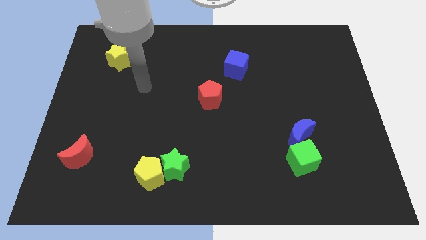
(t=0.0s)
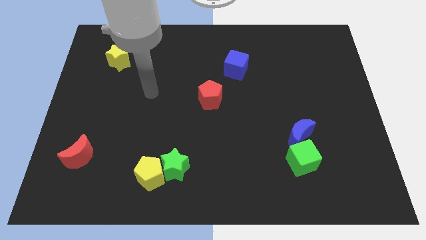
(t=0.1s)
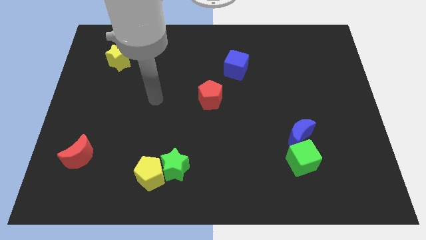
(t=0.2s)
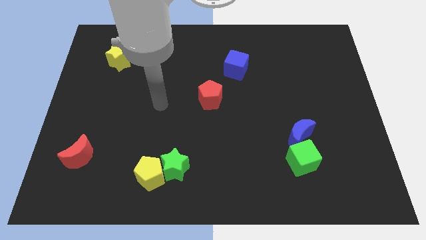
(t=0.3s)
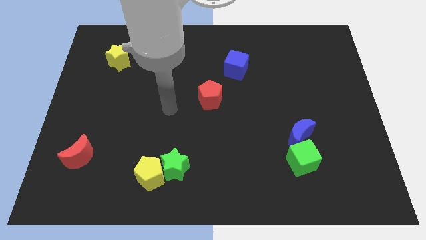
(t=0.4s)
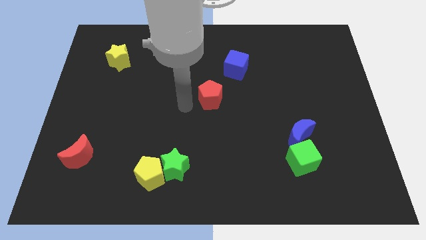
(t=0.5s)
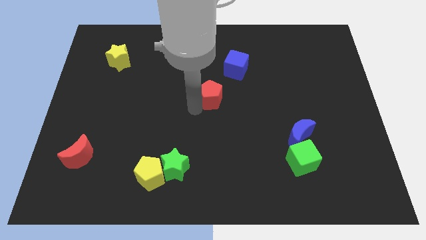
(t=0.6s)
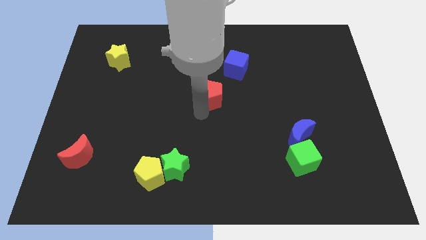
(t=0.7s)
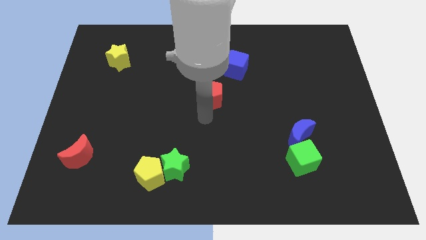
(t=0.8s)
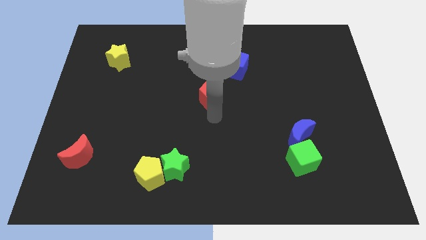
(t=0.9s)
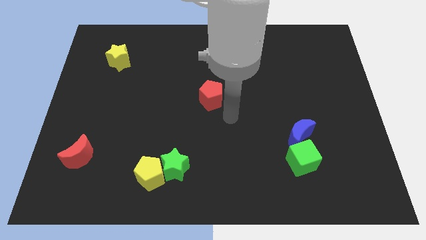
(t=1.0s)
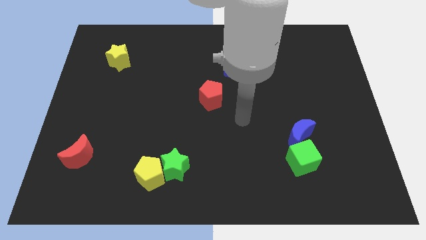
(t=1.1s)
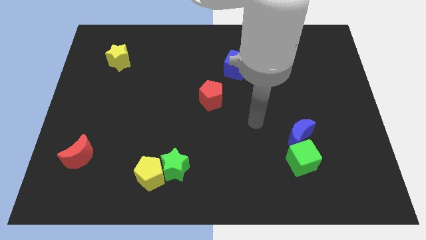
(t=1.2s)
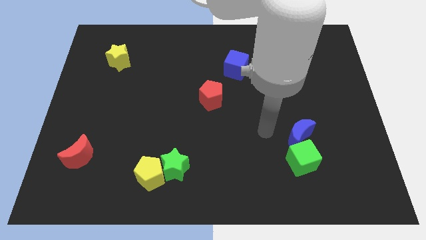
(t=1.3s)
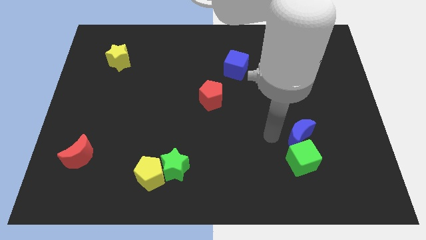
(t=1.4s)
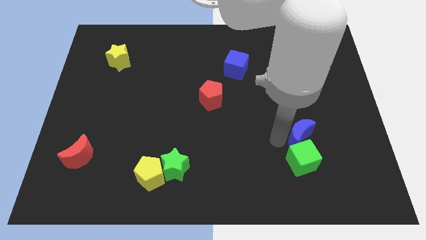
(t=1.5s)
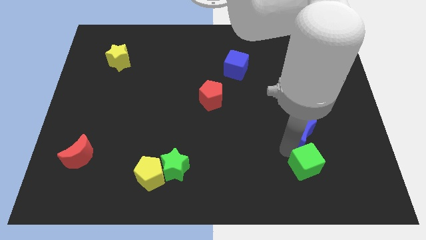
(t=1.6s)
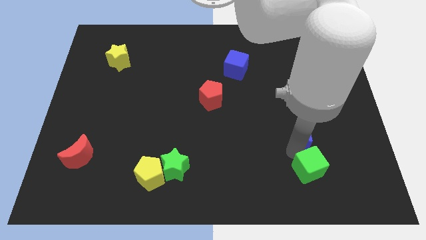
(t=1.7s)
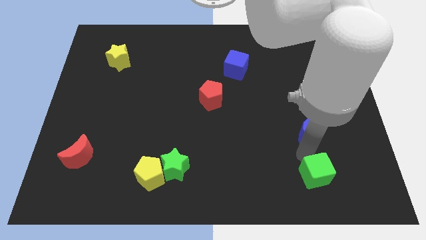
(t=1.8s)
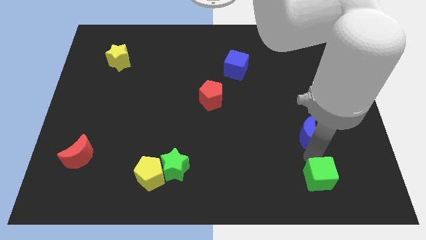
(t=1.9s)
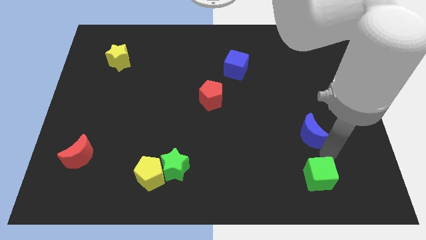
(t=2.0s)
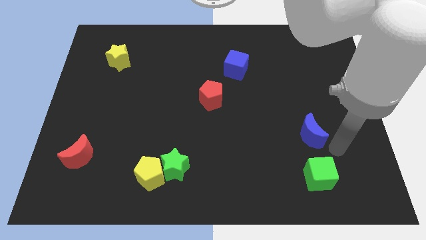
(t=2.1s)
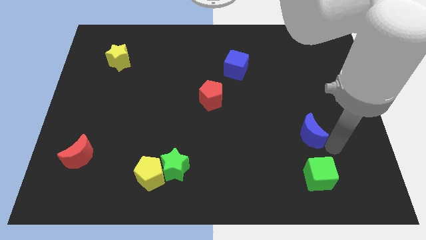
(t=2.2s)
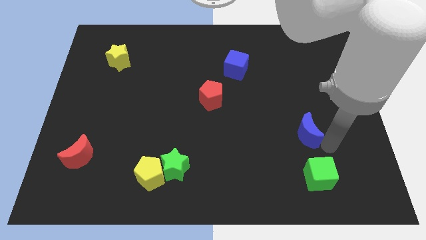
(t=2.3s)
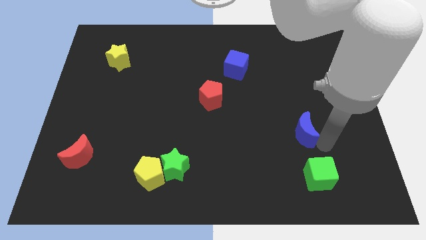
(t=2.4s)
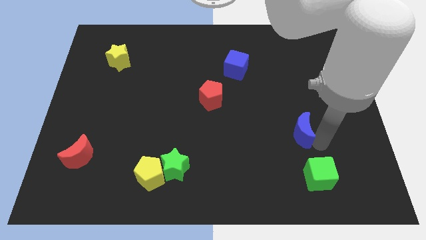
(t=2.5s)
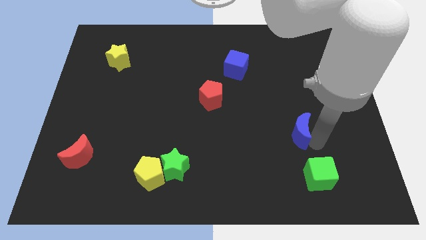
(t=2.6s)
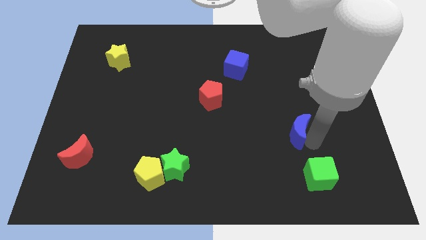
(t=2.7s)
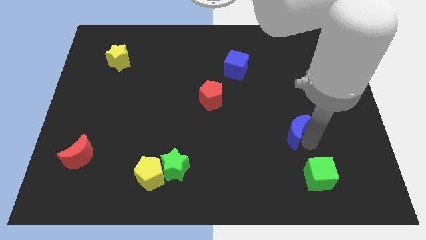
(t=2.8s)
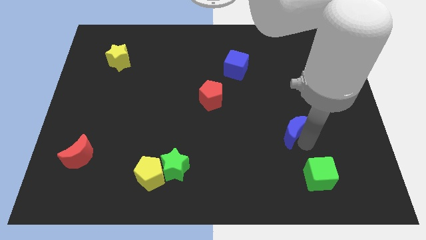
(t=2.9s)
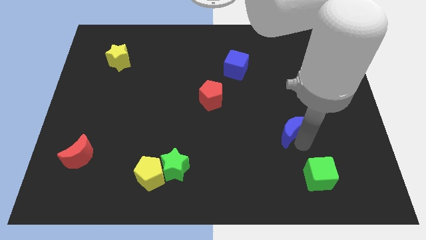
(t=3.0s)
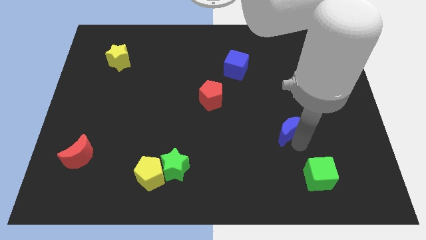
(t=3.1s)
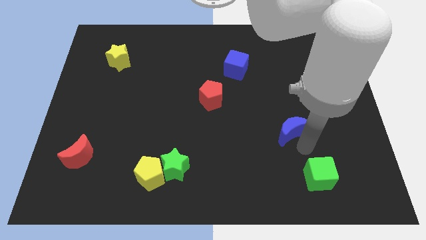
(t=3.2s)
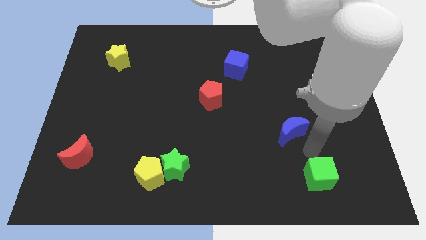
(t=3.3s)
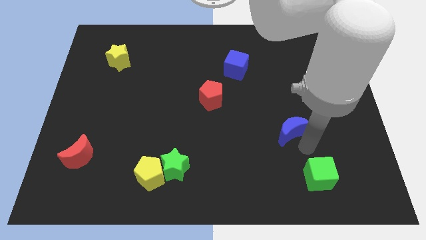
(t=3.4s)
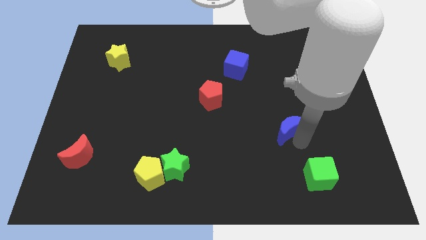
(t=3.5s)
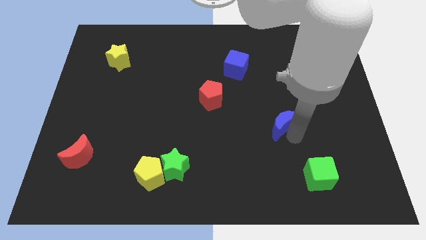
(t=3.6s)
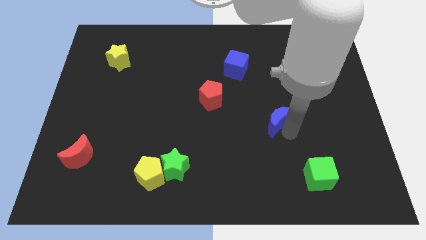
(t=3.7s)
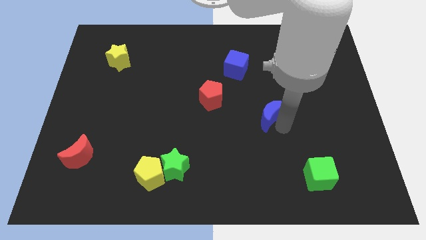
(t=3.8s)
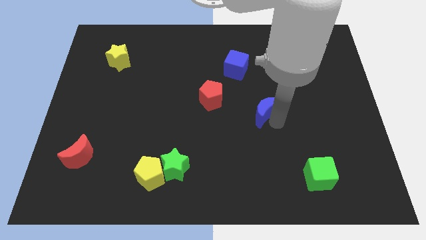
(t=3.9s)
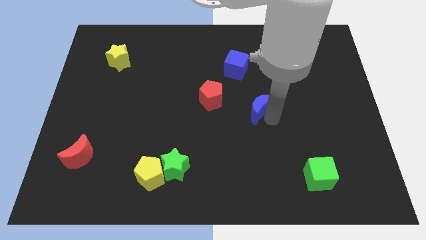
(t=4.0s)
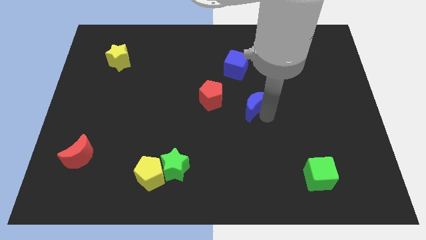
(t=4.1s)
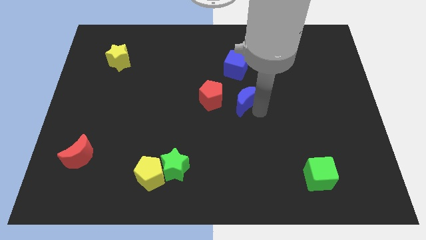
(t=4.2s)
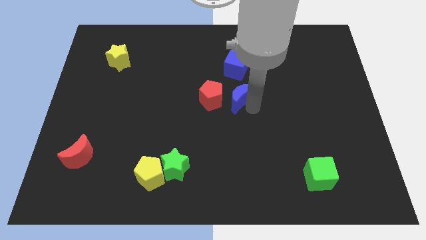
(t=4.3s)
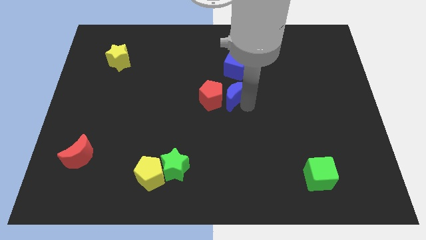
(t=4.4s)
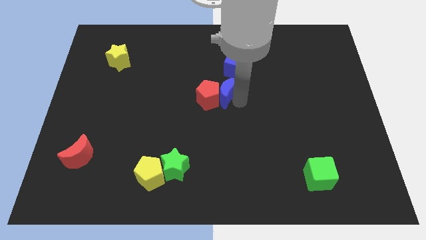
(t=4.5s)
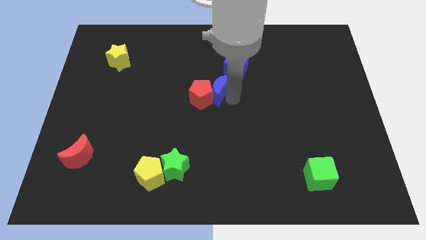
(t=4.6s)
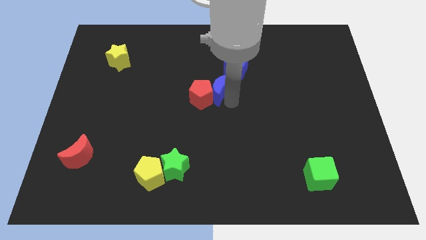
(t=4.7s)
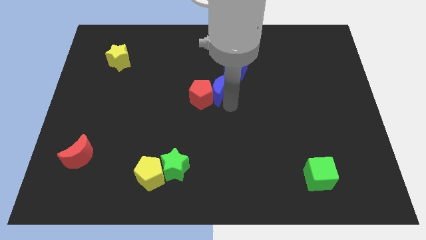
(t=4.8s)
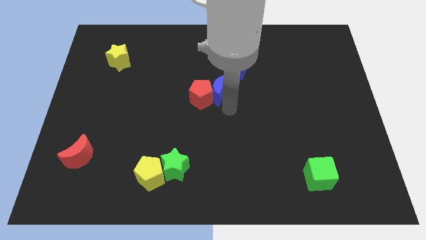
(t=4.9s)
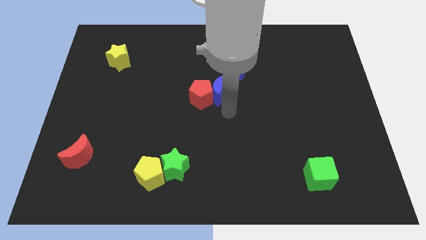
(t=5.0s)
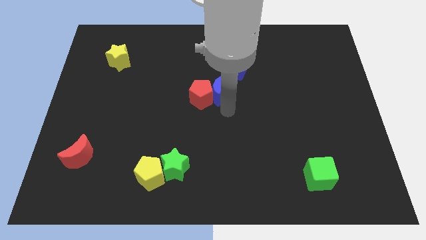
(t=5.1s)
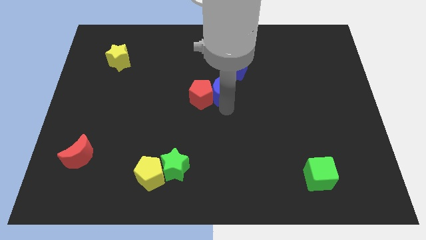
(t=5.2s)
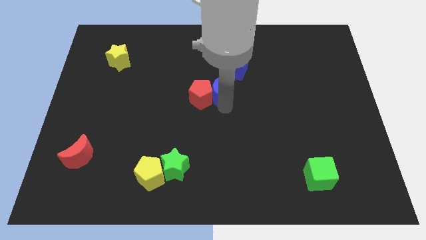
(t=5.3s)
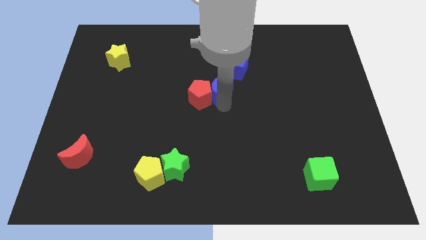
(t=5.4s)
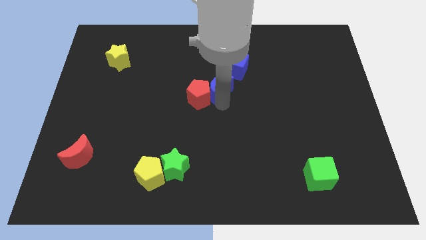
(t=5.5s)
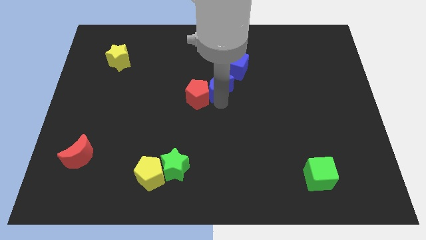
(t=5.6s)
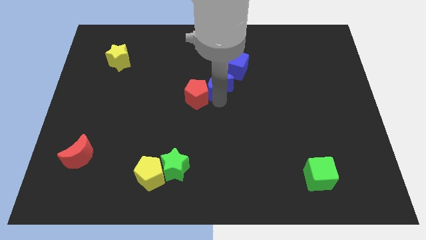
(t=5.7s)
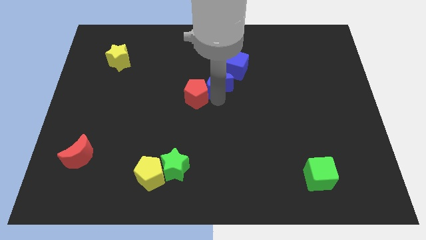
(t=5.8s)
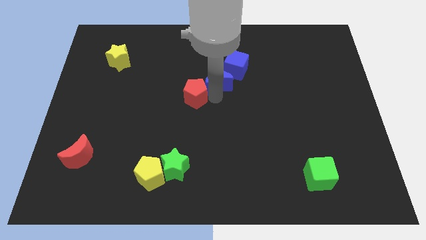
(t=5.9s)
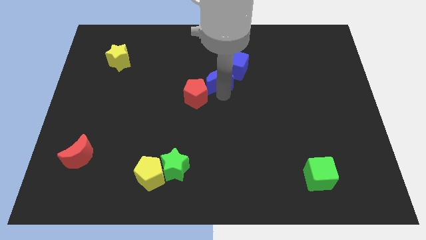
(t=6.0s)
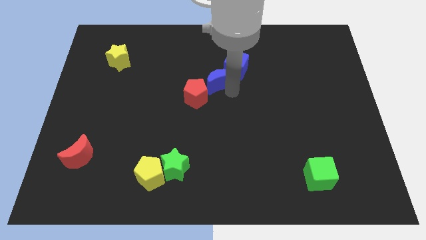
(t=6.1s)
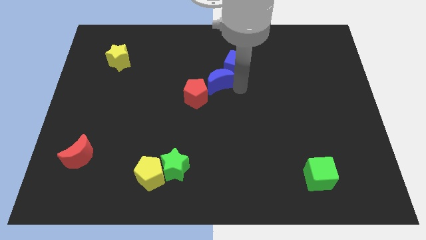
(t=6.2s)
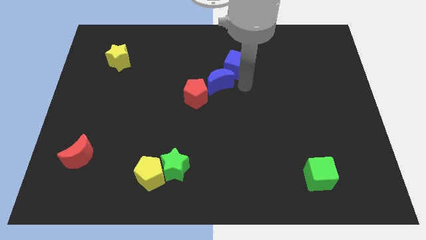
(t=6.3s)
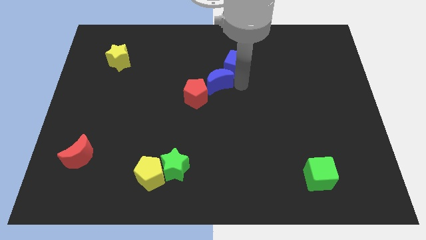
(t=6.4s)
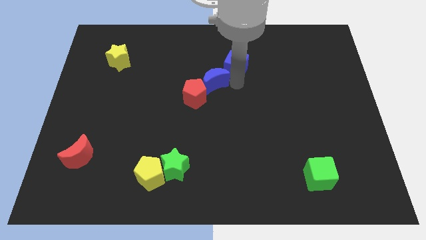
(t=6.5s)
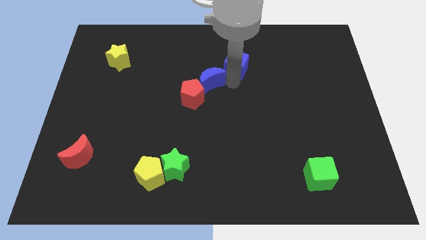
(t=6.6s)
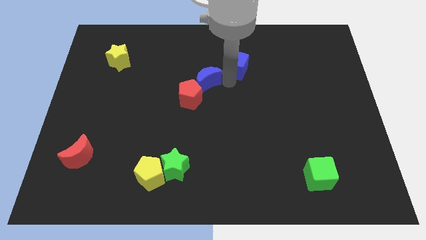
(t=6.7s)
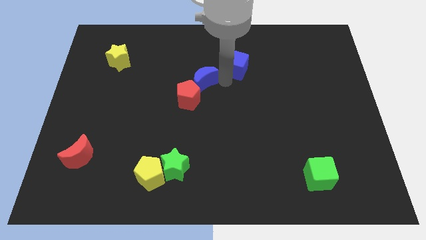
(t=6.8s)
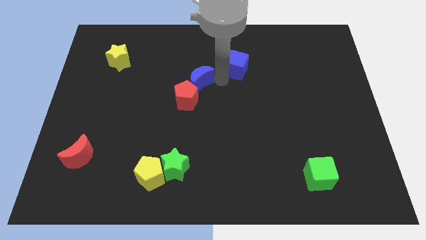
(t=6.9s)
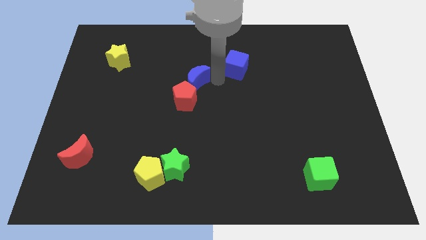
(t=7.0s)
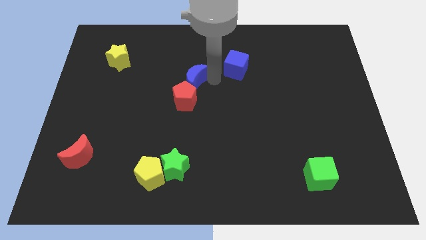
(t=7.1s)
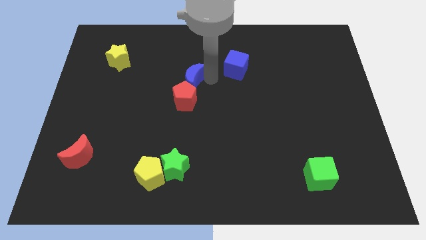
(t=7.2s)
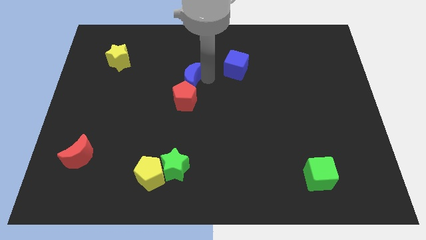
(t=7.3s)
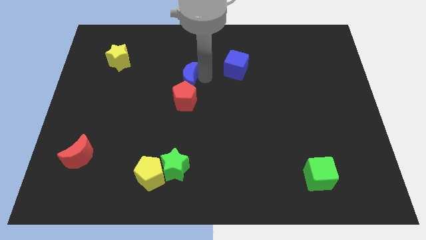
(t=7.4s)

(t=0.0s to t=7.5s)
put the blue moon to the top left side of the red pentagon
